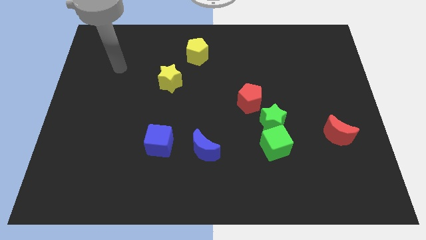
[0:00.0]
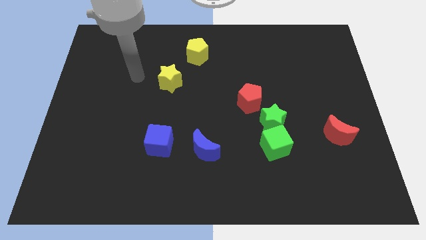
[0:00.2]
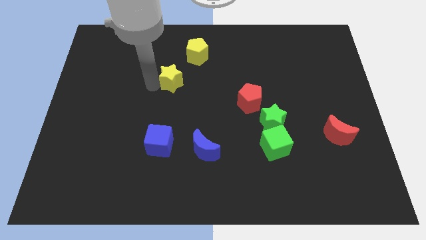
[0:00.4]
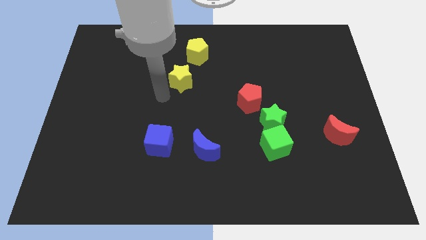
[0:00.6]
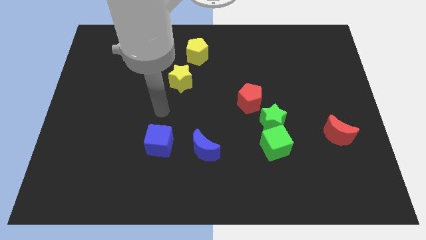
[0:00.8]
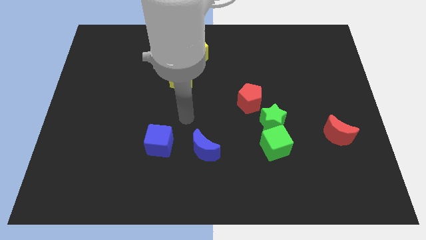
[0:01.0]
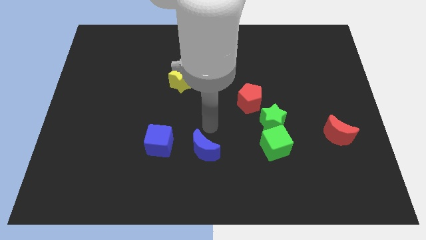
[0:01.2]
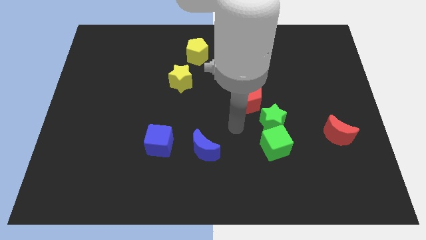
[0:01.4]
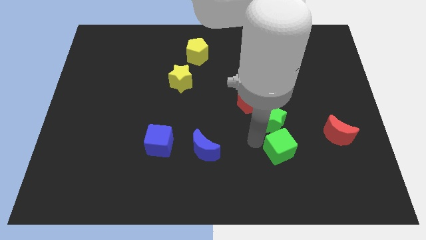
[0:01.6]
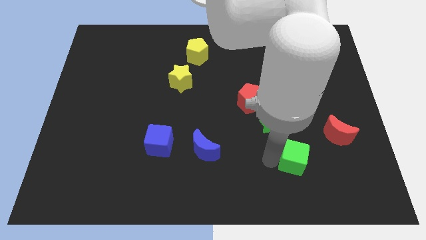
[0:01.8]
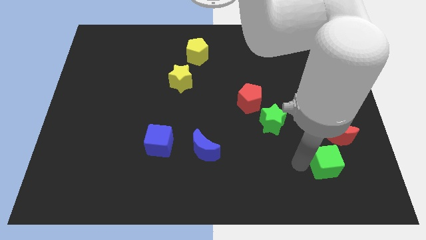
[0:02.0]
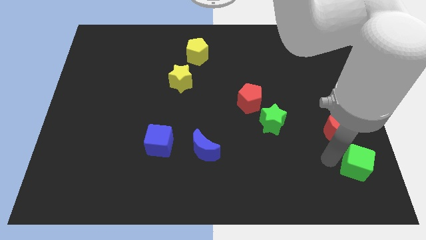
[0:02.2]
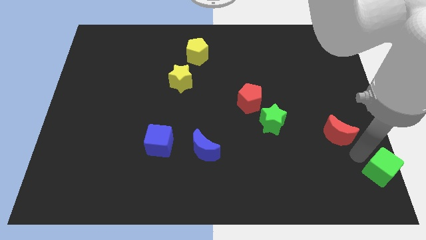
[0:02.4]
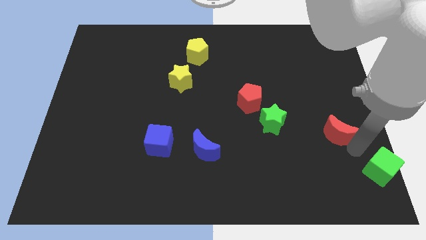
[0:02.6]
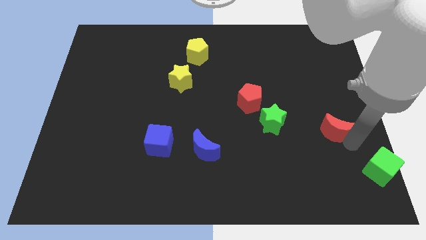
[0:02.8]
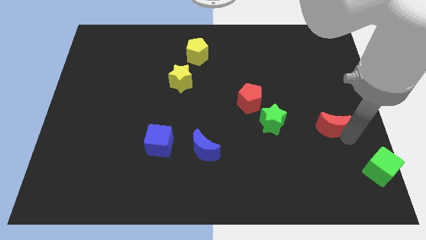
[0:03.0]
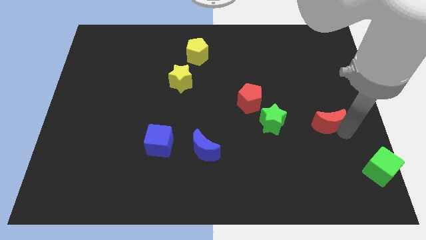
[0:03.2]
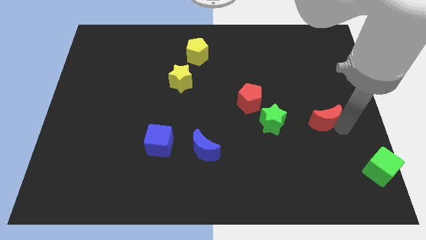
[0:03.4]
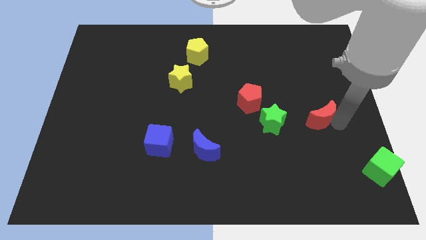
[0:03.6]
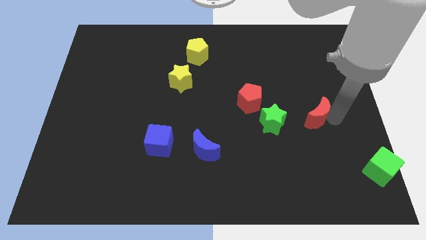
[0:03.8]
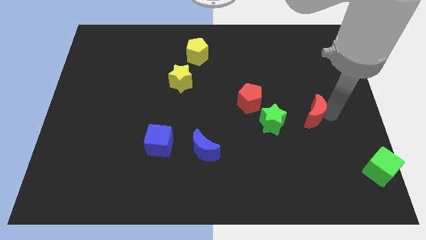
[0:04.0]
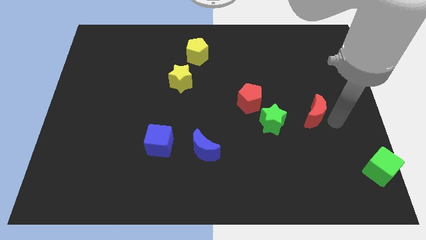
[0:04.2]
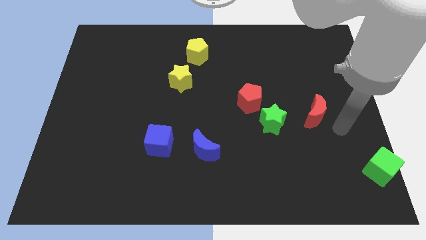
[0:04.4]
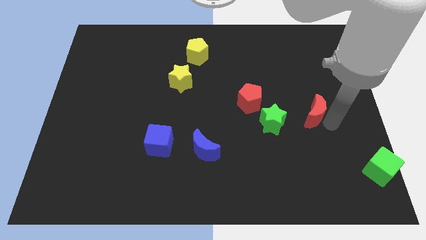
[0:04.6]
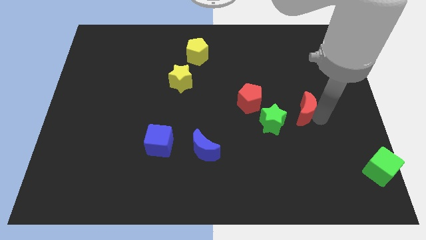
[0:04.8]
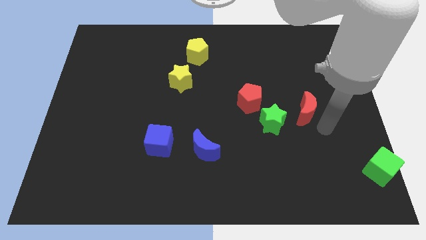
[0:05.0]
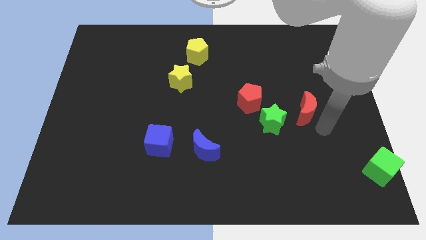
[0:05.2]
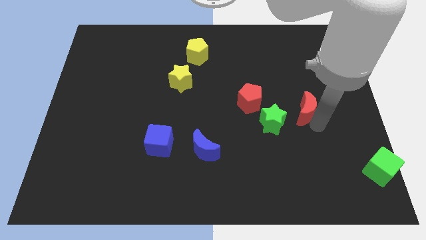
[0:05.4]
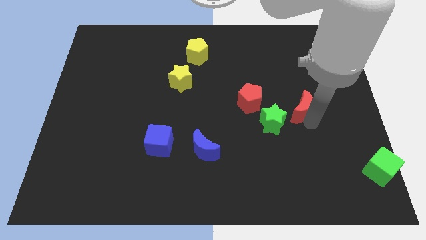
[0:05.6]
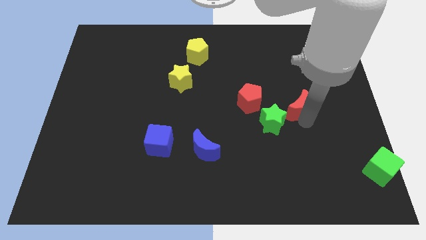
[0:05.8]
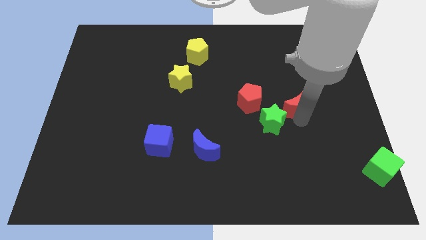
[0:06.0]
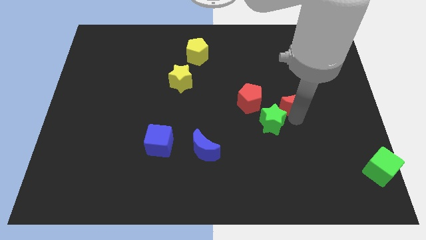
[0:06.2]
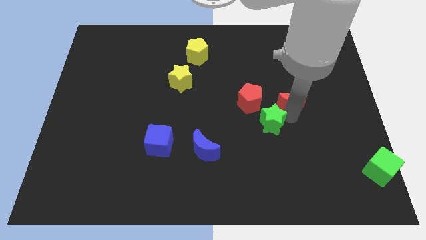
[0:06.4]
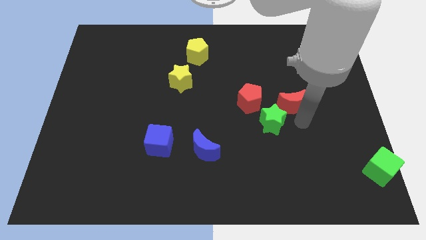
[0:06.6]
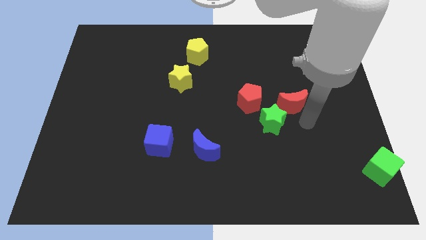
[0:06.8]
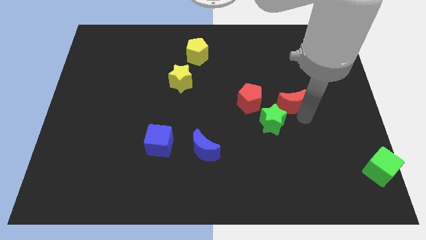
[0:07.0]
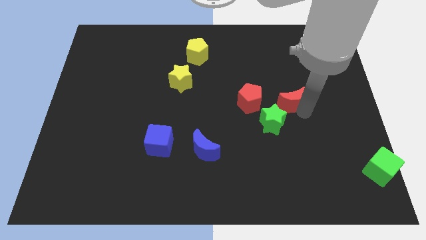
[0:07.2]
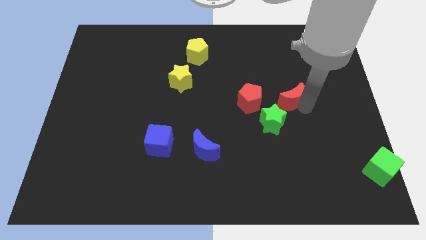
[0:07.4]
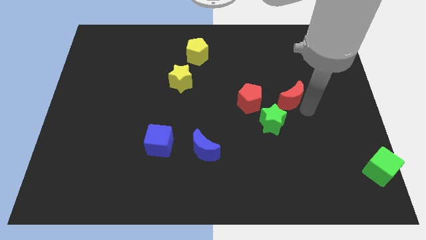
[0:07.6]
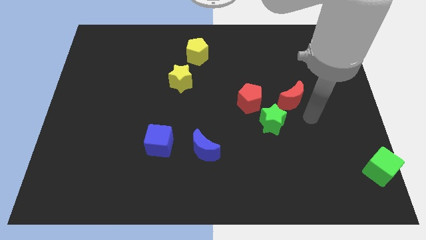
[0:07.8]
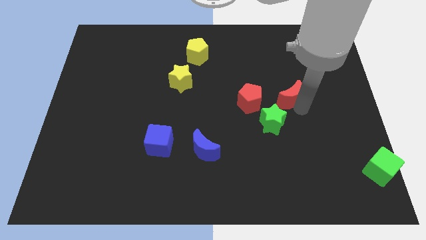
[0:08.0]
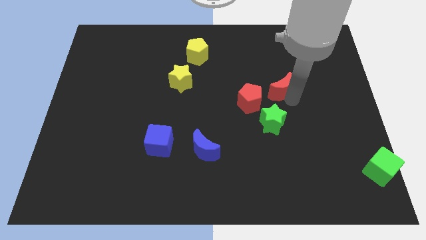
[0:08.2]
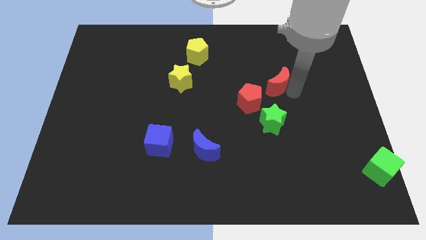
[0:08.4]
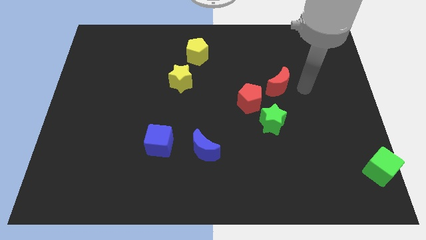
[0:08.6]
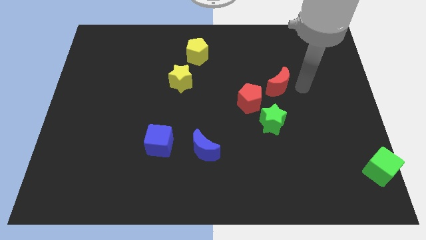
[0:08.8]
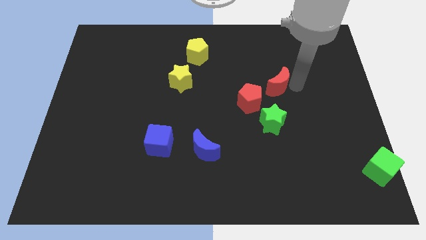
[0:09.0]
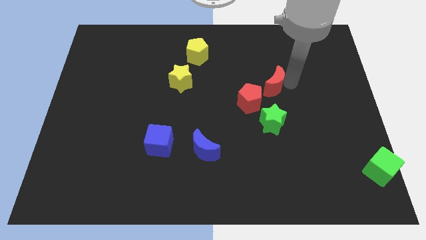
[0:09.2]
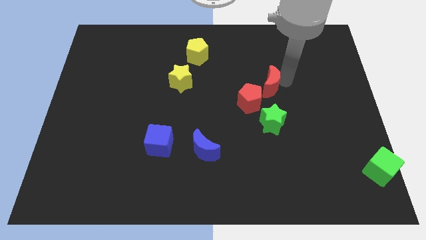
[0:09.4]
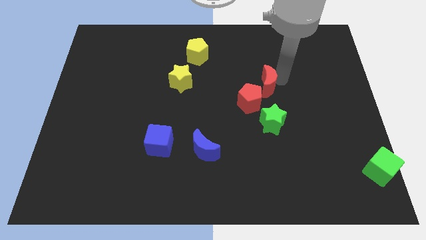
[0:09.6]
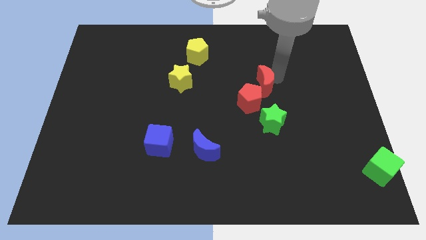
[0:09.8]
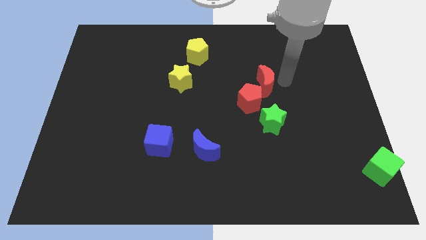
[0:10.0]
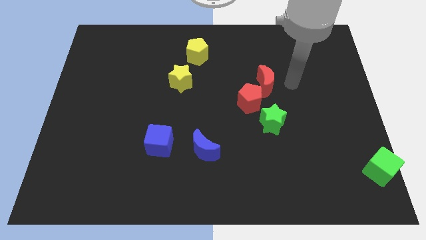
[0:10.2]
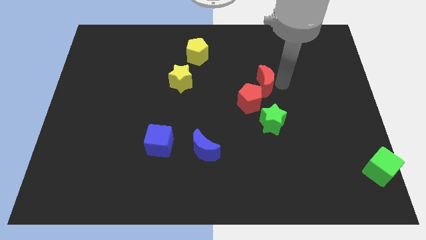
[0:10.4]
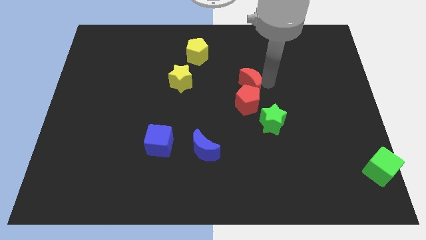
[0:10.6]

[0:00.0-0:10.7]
push the red moon to the center of the board

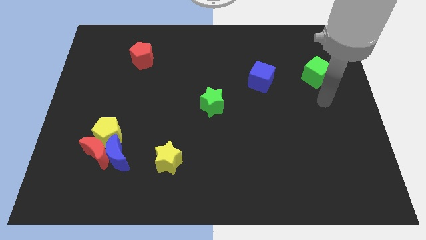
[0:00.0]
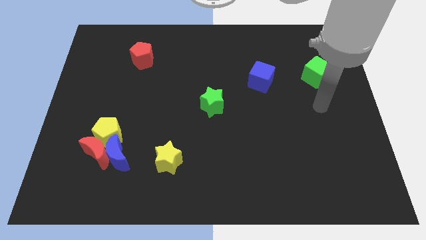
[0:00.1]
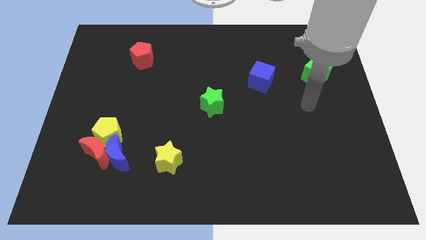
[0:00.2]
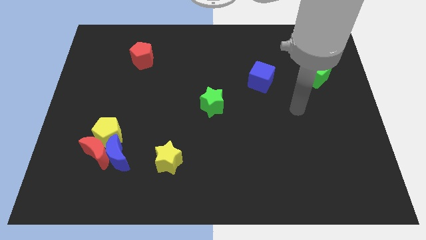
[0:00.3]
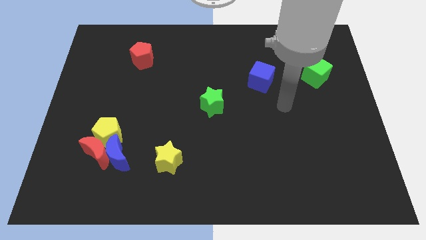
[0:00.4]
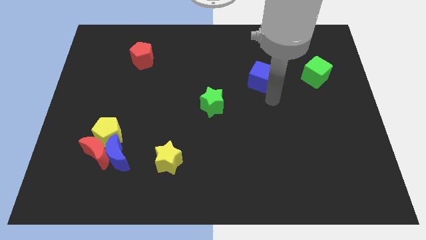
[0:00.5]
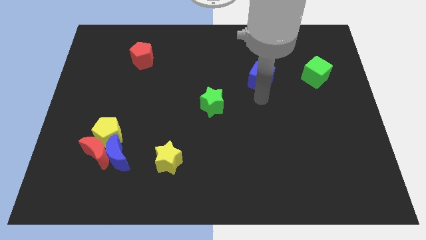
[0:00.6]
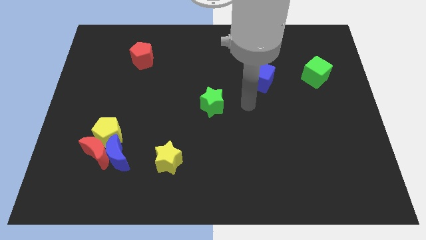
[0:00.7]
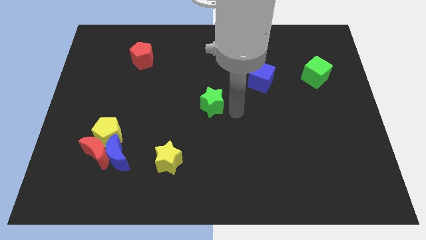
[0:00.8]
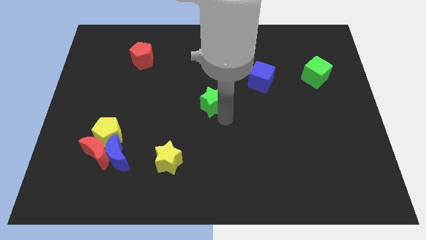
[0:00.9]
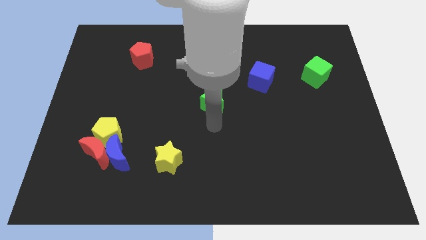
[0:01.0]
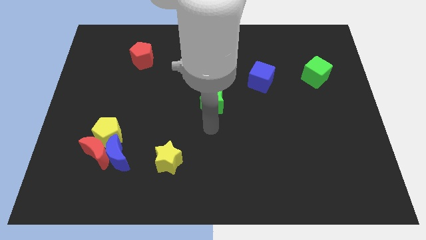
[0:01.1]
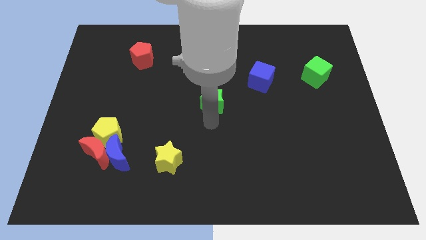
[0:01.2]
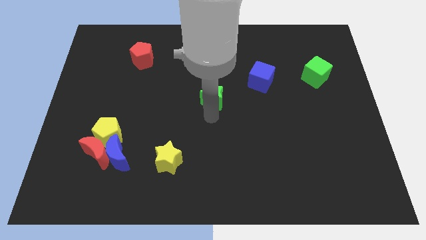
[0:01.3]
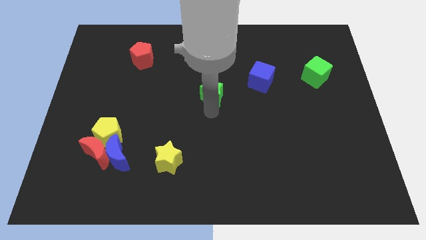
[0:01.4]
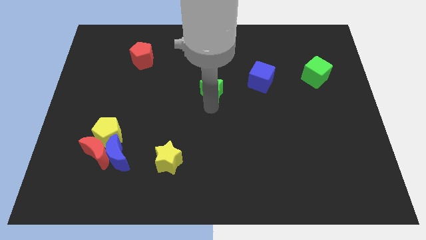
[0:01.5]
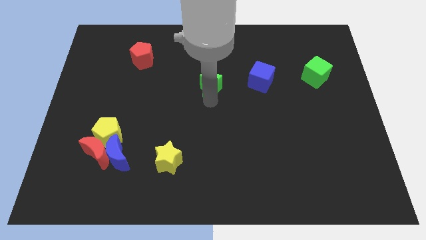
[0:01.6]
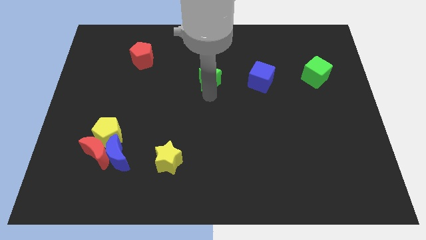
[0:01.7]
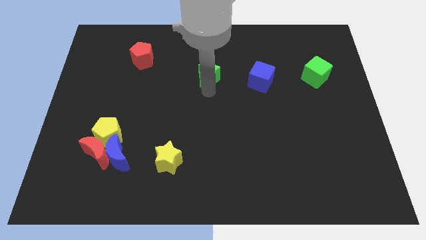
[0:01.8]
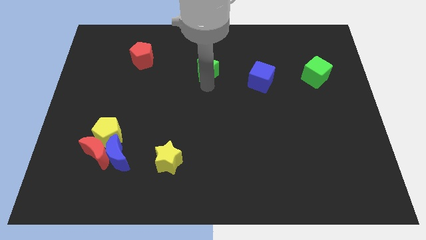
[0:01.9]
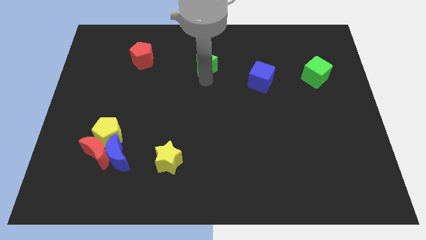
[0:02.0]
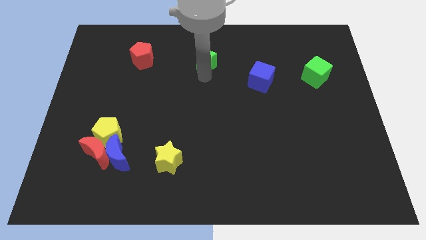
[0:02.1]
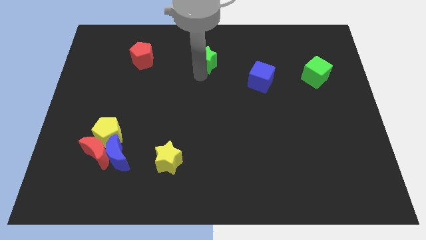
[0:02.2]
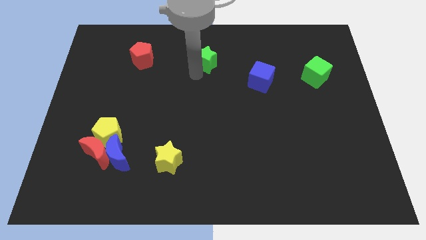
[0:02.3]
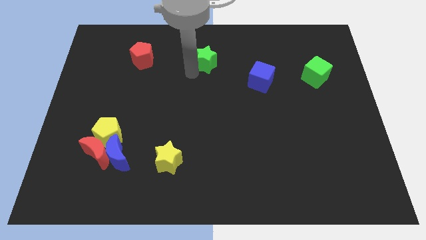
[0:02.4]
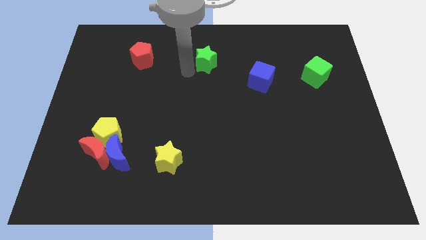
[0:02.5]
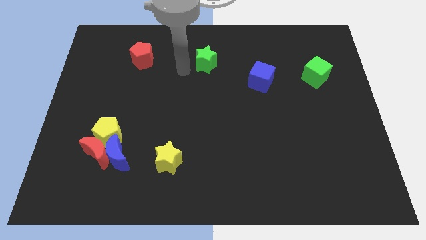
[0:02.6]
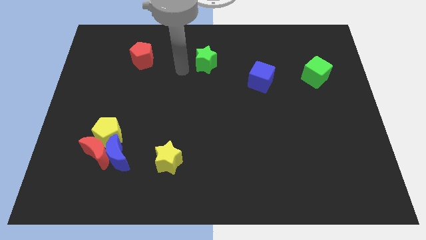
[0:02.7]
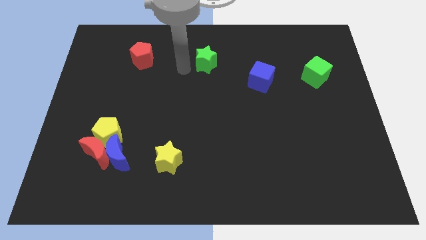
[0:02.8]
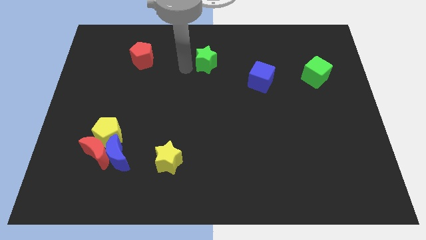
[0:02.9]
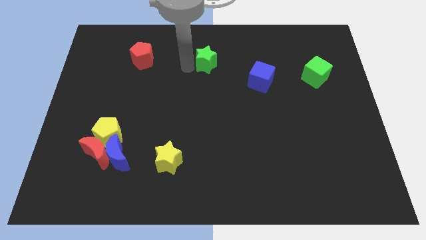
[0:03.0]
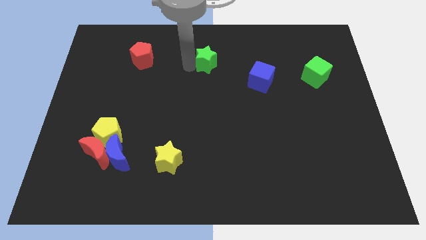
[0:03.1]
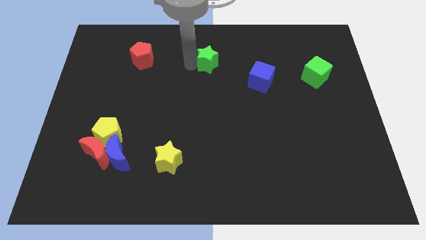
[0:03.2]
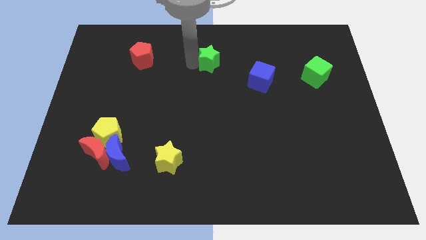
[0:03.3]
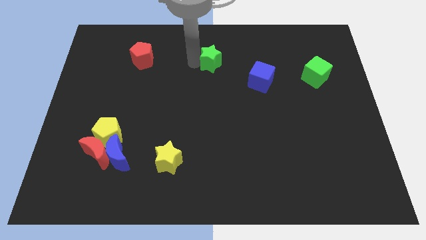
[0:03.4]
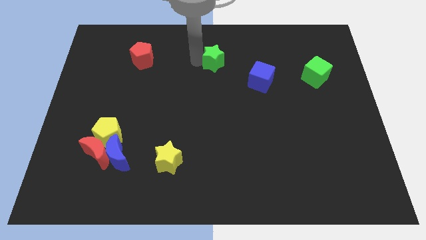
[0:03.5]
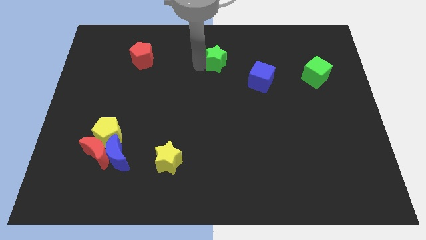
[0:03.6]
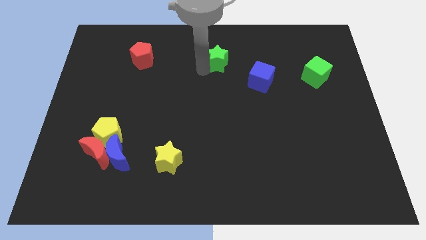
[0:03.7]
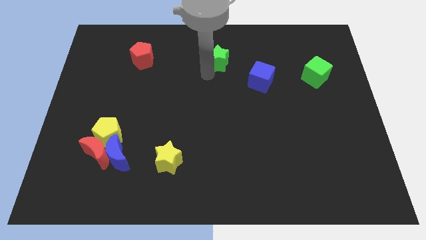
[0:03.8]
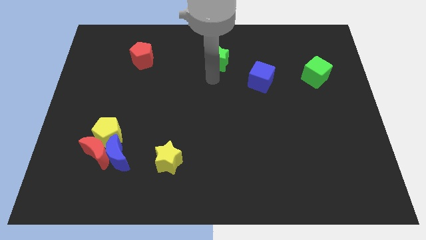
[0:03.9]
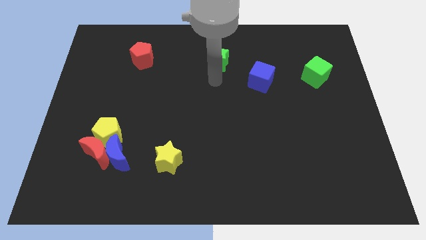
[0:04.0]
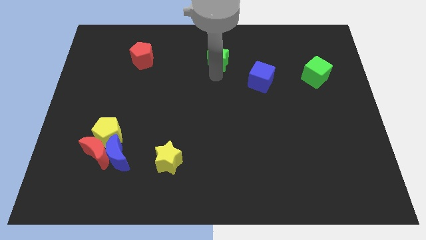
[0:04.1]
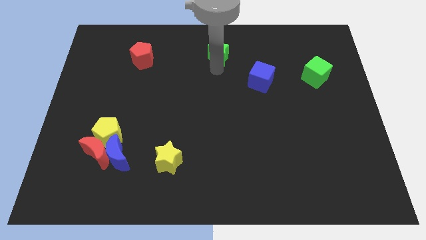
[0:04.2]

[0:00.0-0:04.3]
move the green star to the top side
